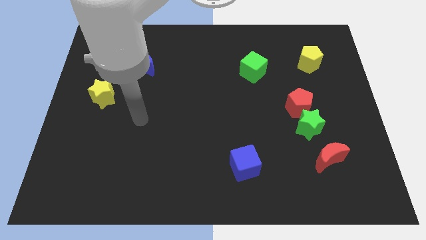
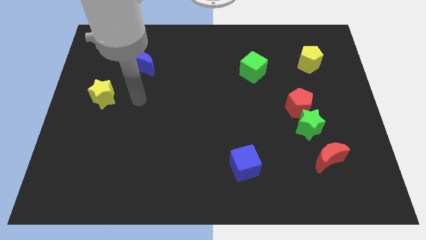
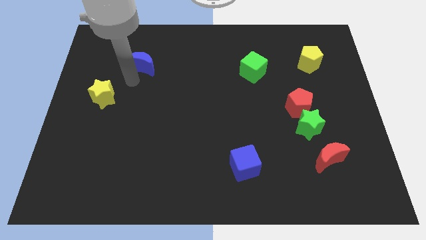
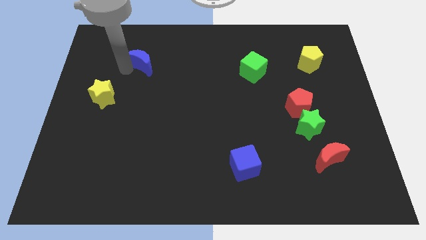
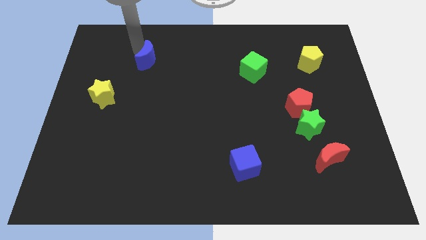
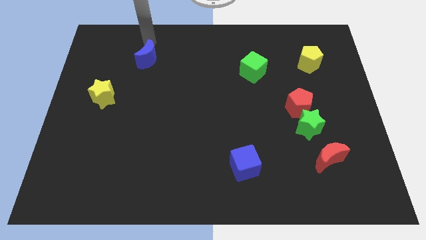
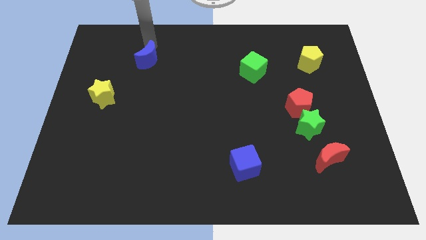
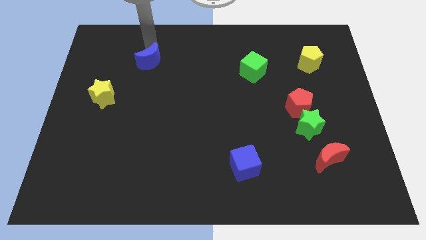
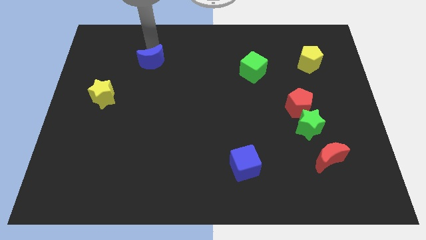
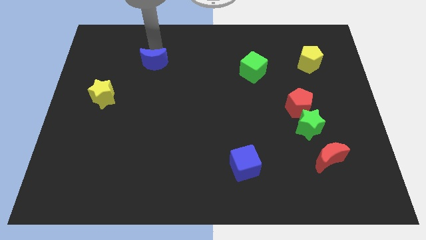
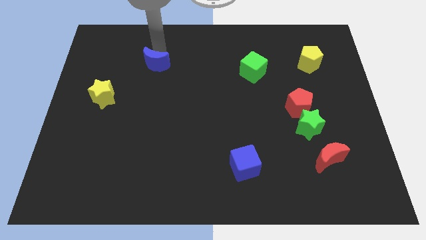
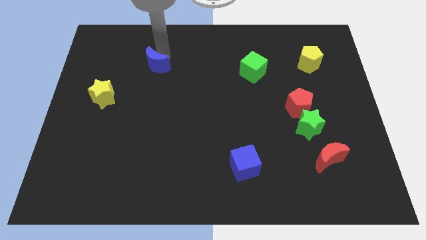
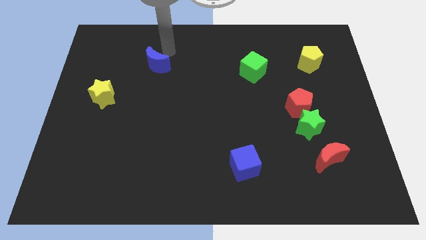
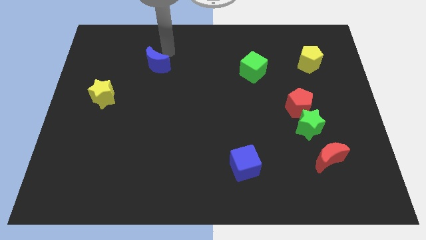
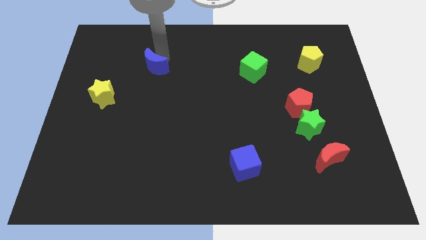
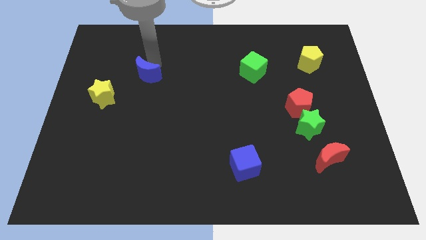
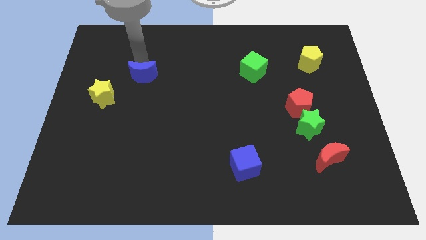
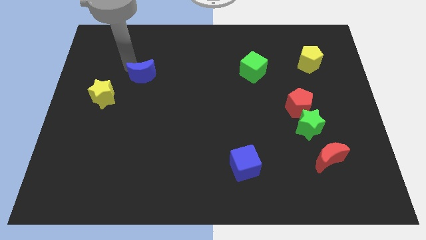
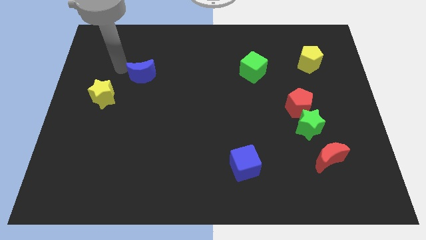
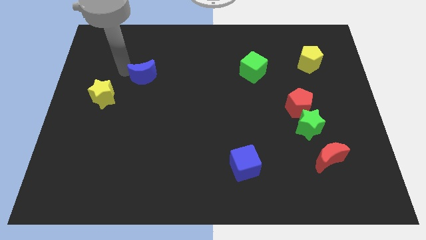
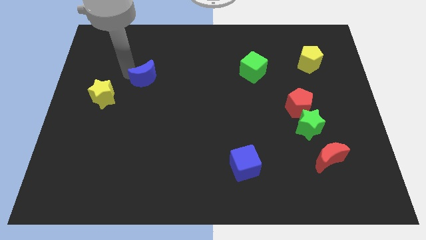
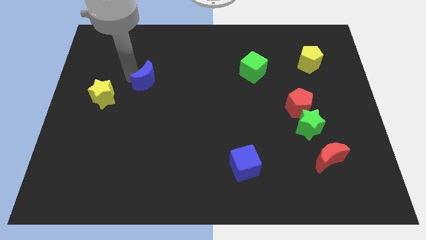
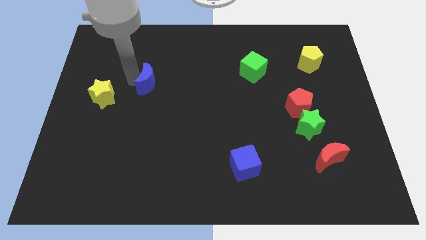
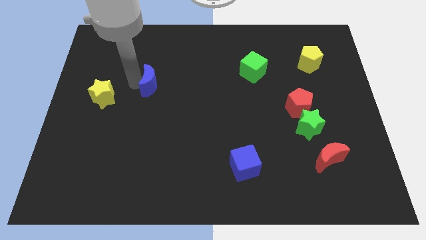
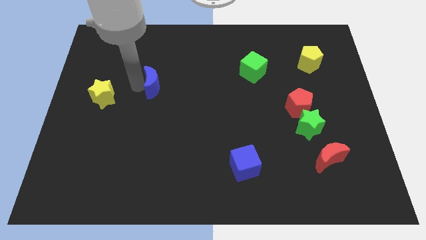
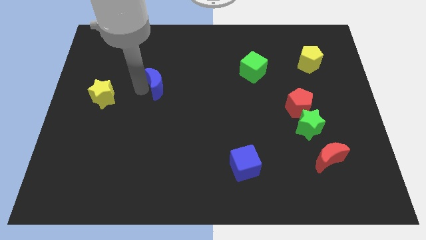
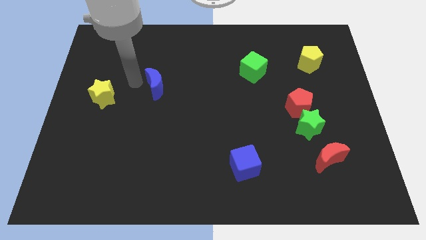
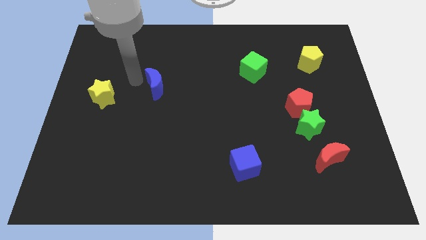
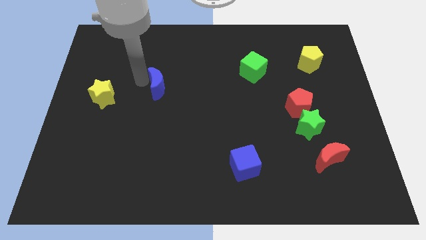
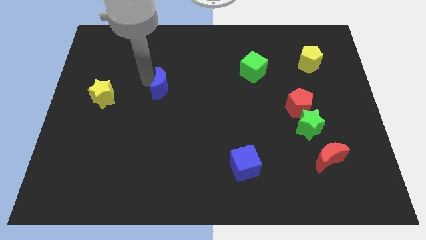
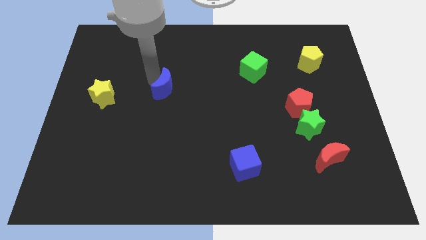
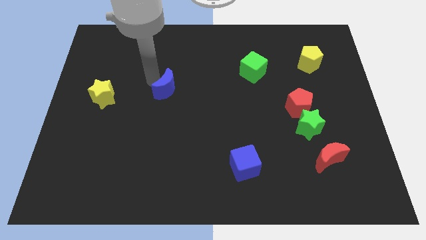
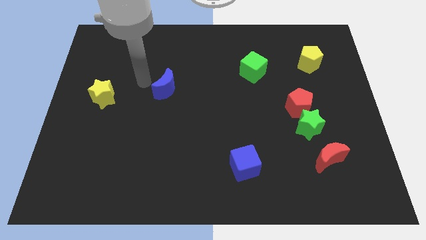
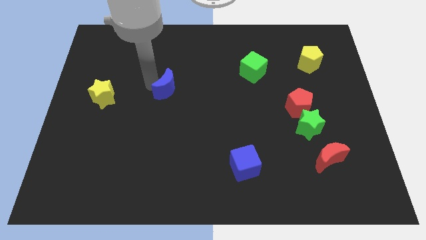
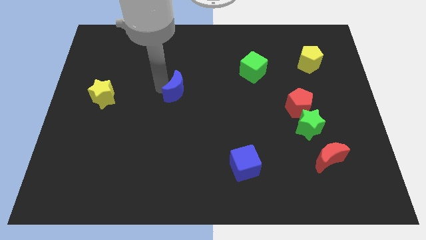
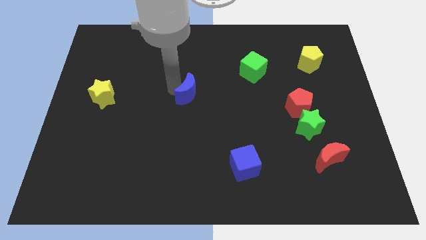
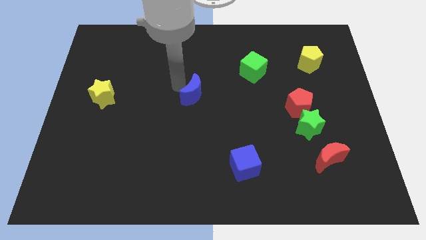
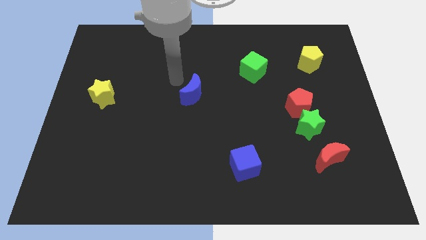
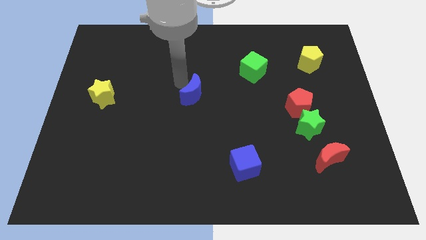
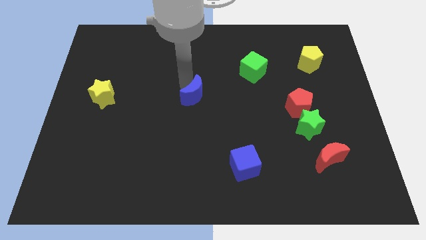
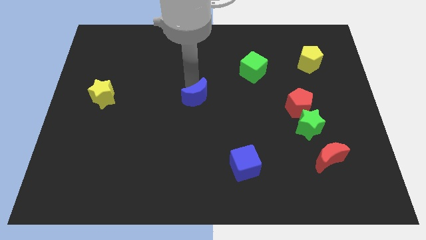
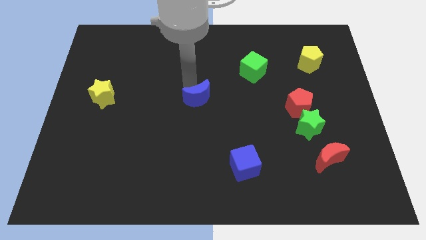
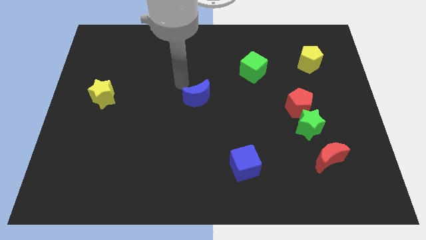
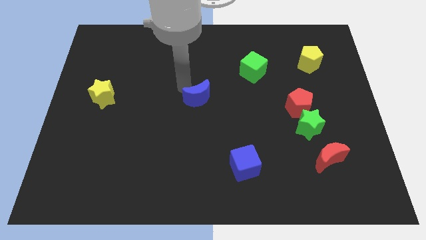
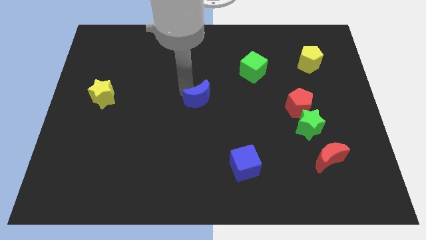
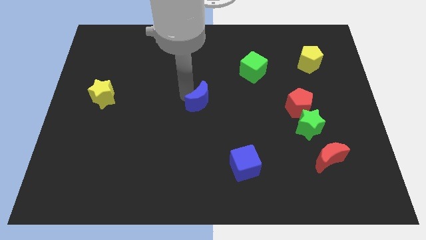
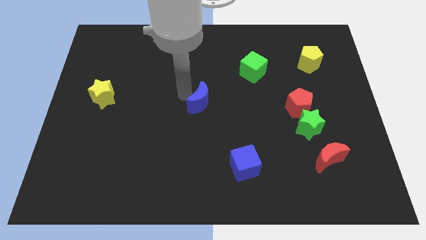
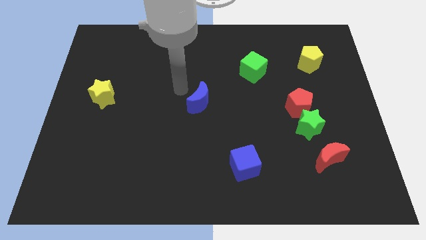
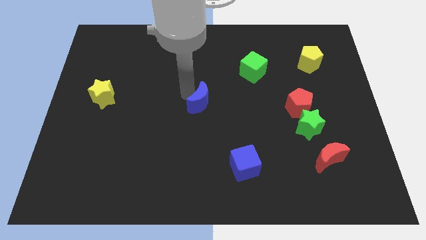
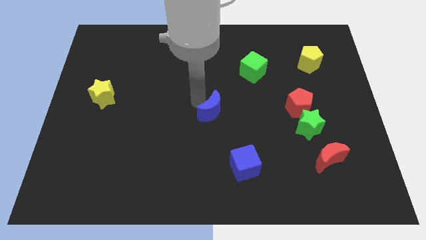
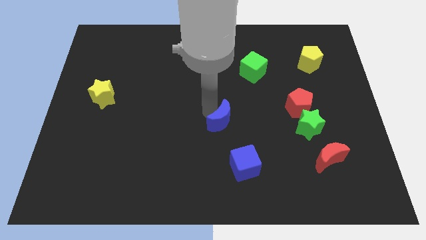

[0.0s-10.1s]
slide the blue moon to the top of the blue cube

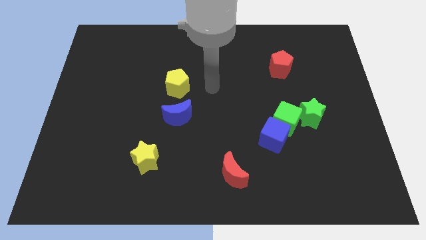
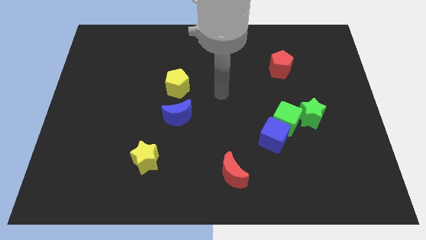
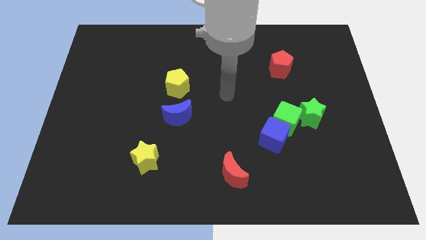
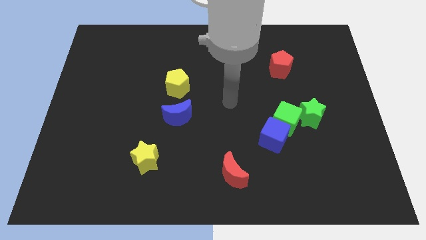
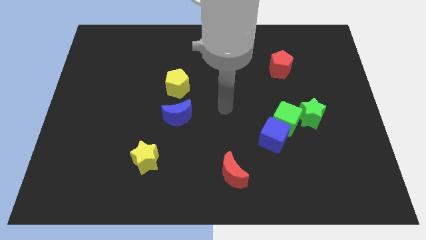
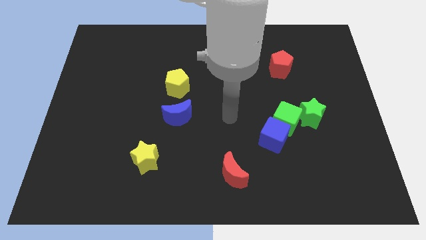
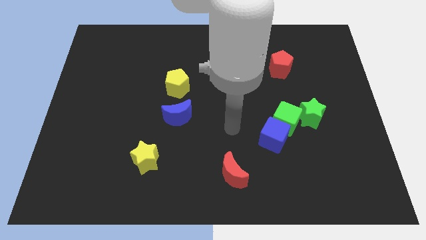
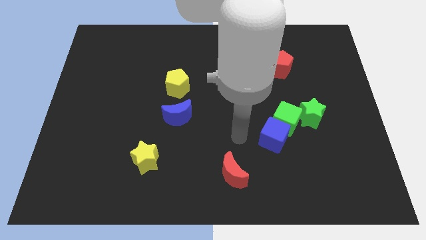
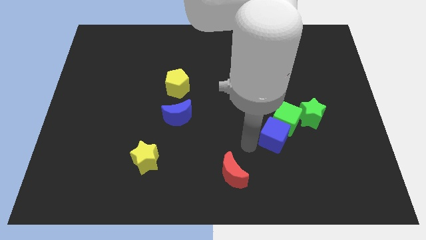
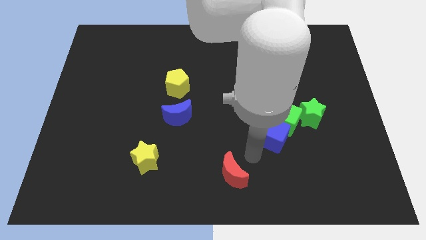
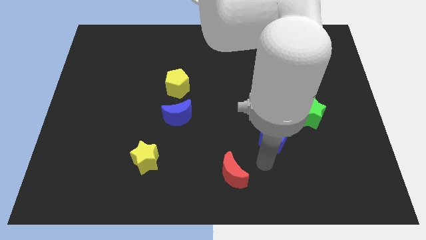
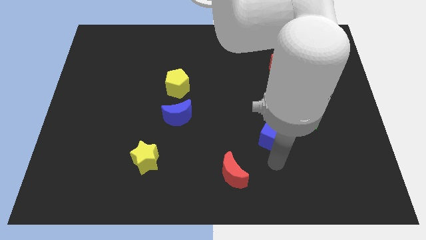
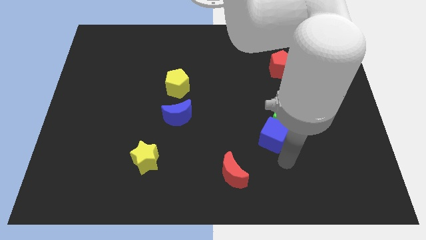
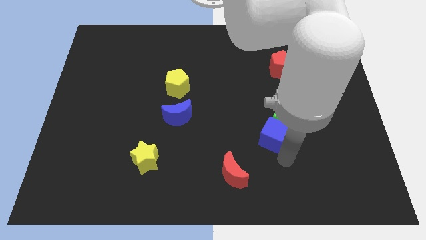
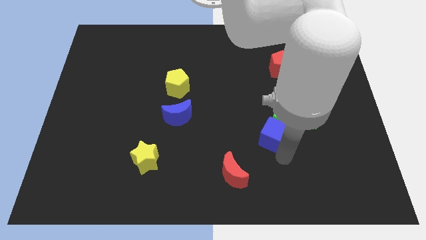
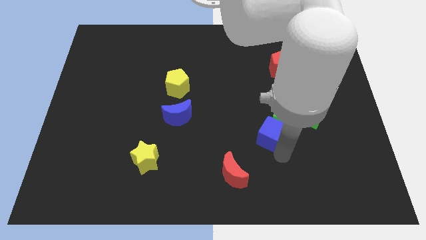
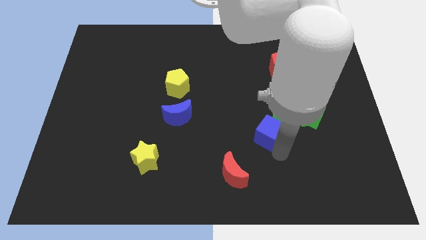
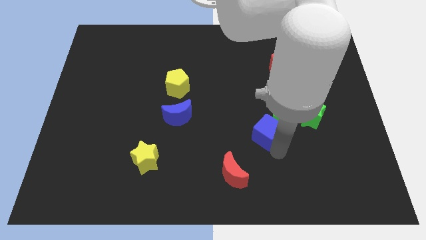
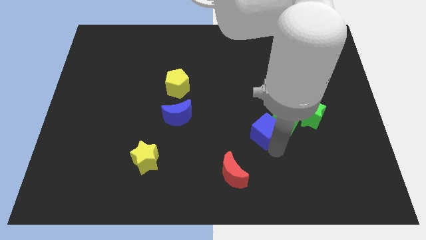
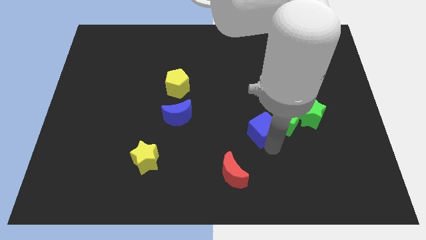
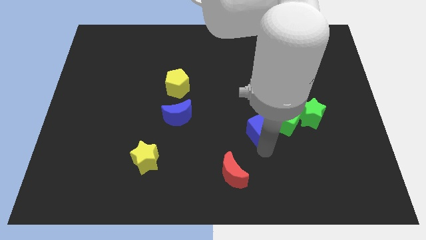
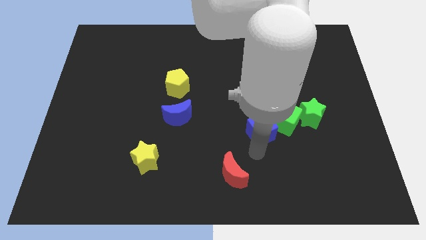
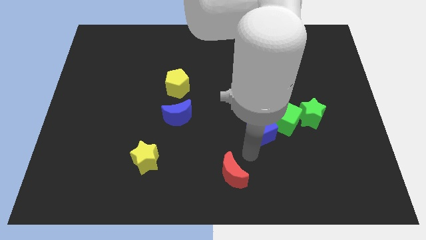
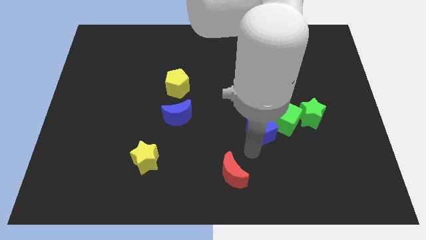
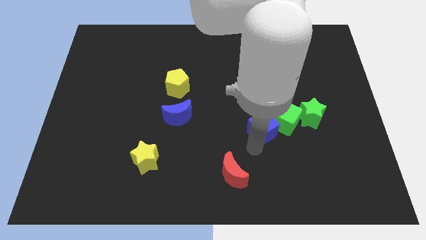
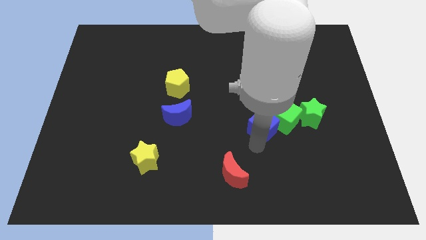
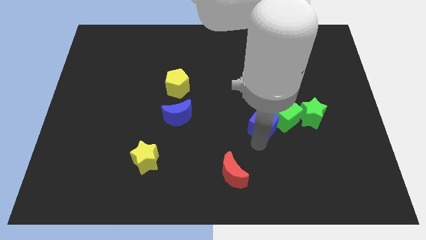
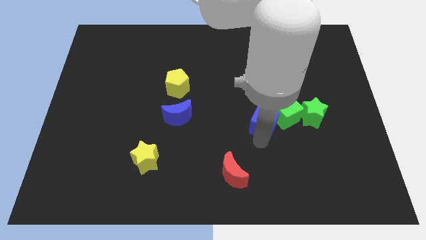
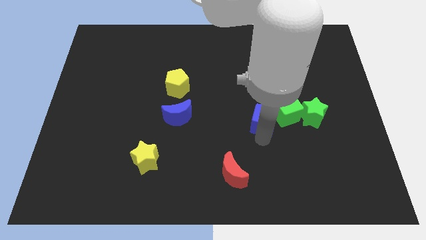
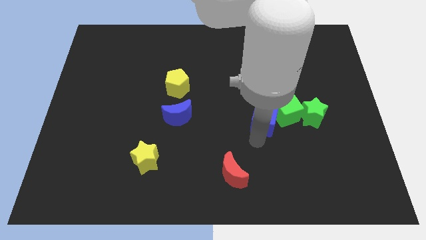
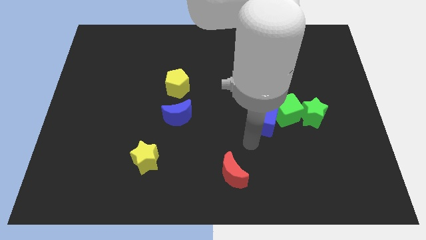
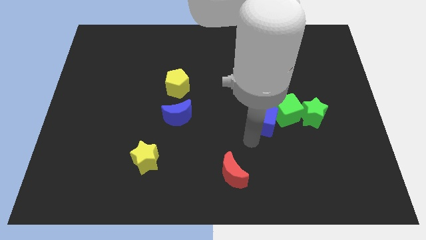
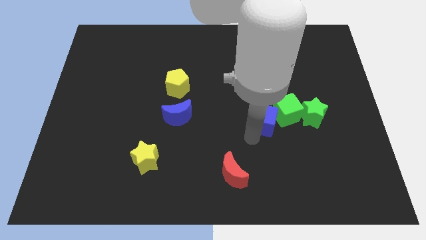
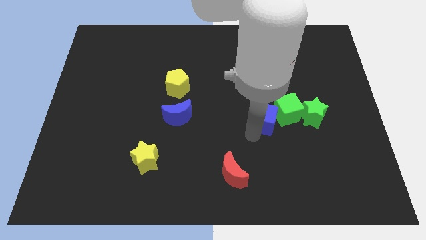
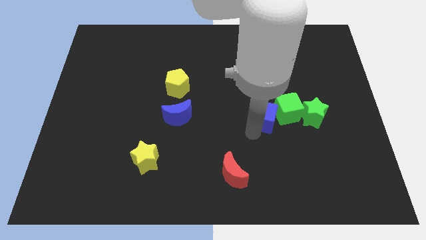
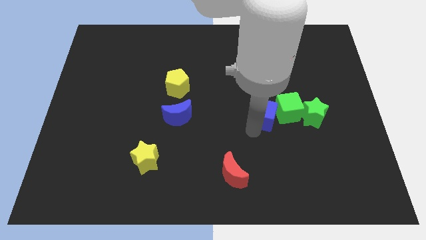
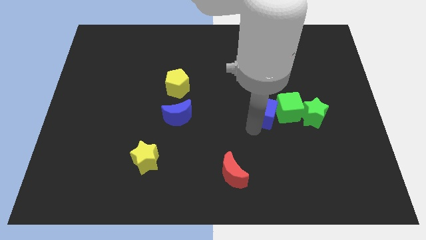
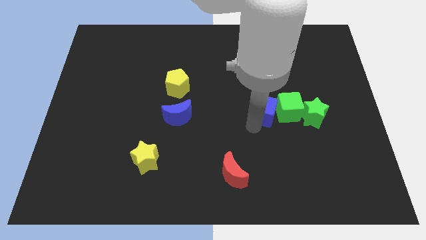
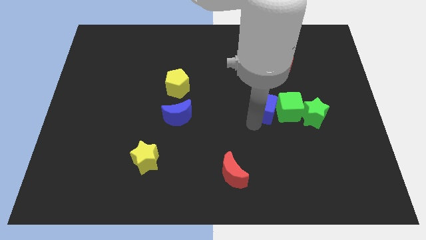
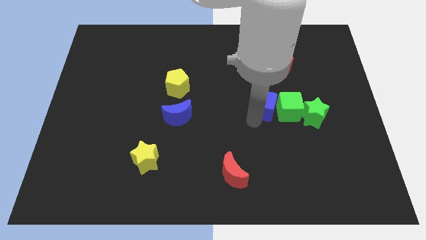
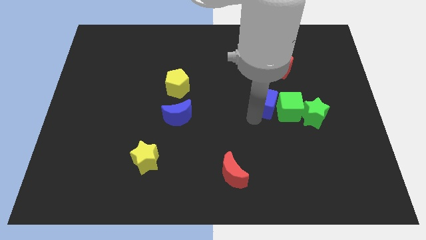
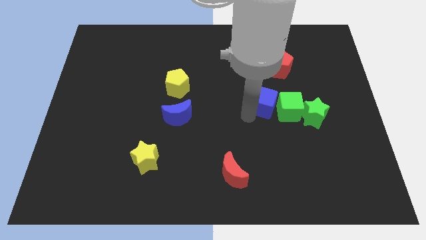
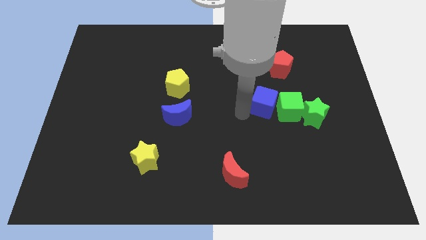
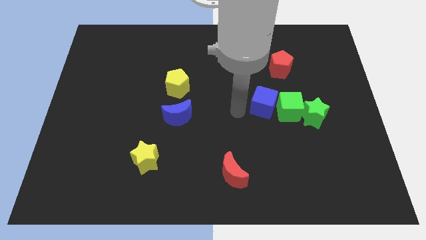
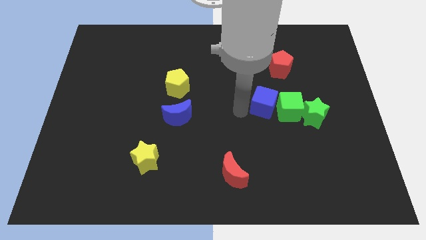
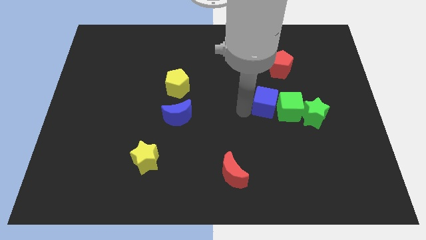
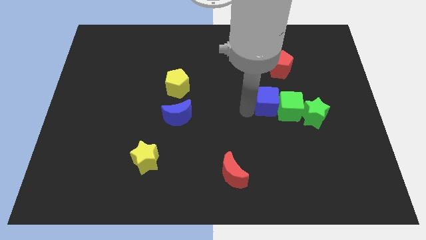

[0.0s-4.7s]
push the blue cube to the bottom of the red pentagon
